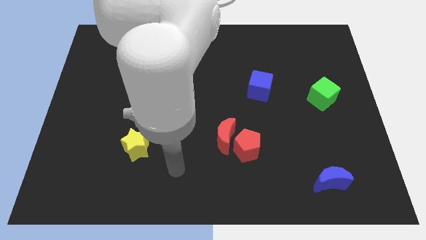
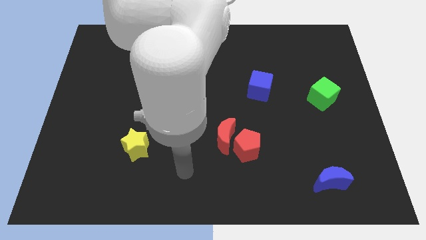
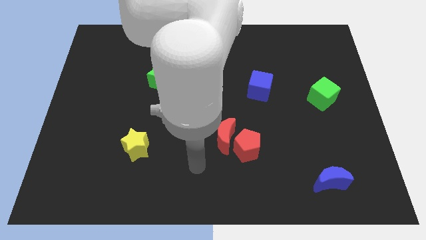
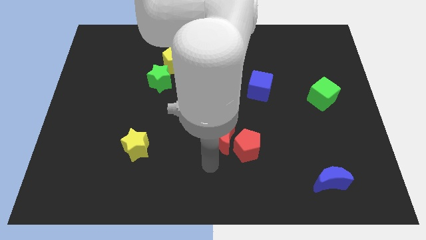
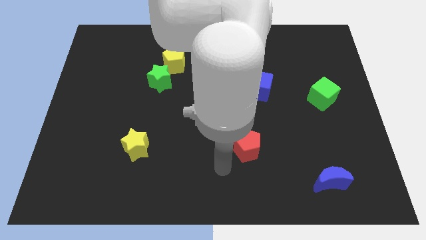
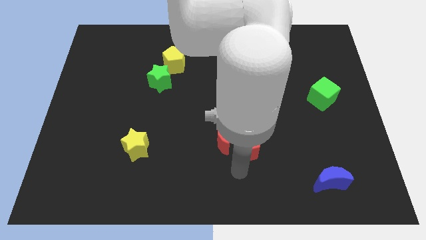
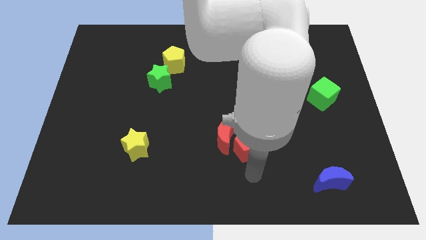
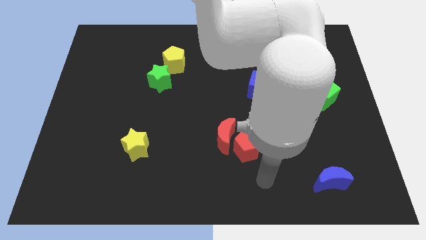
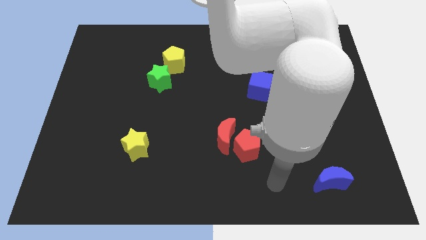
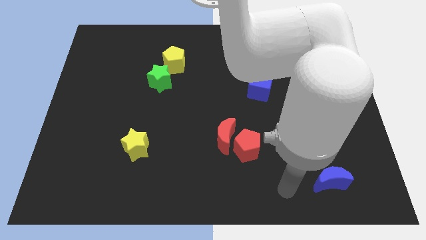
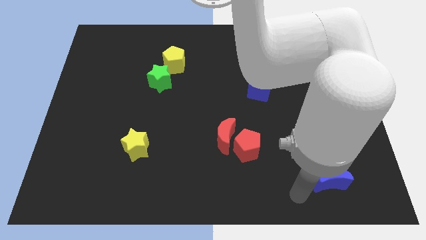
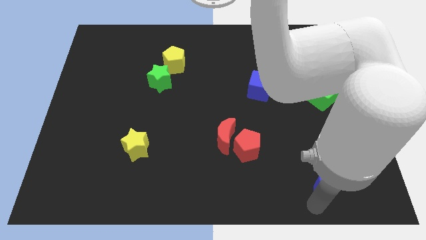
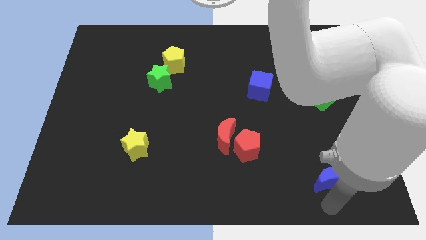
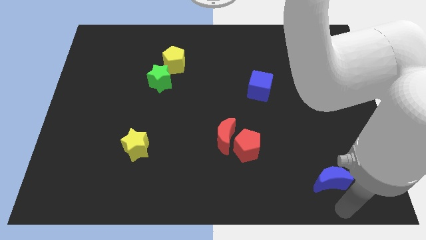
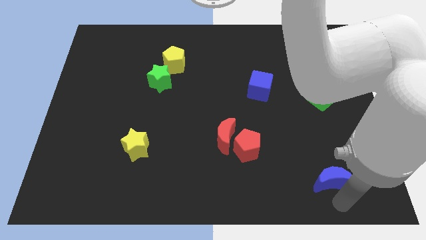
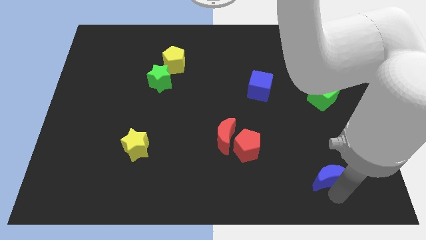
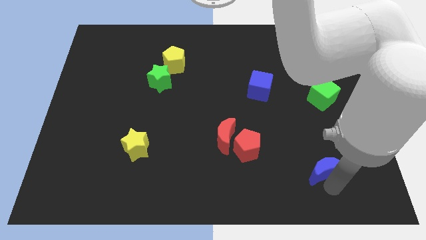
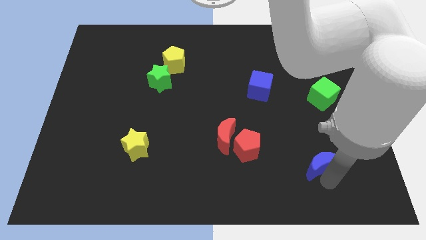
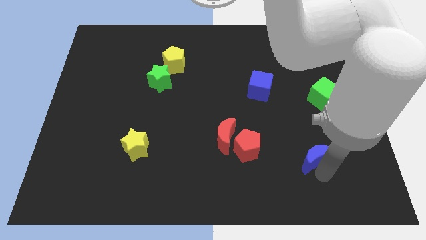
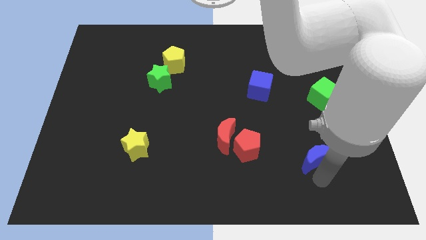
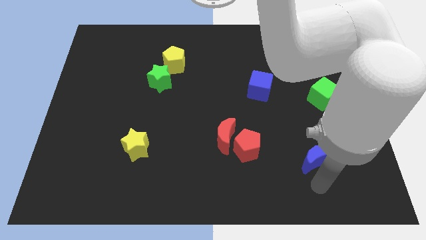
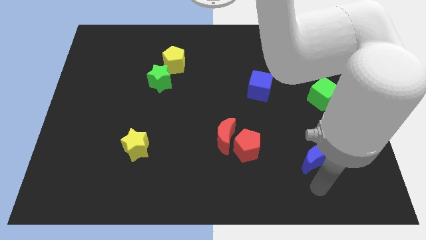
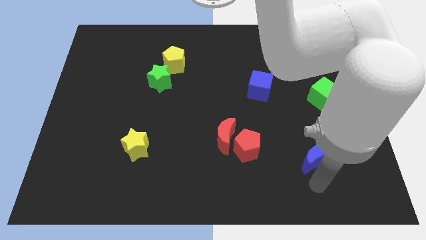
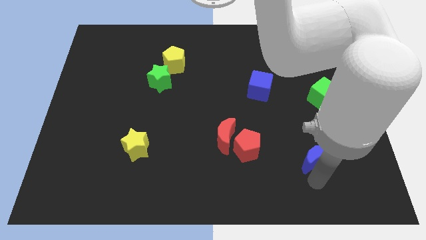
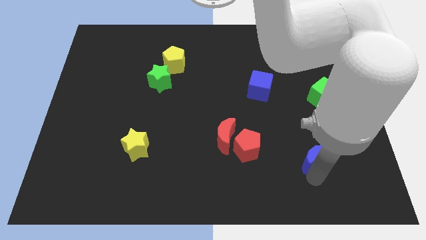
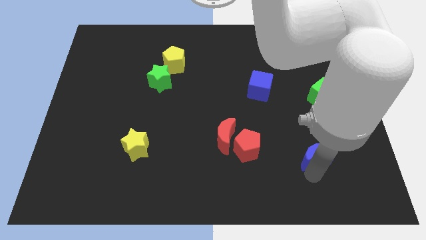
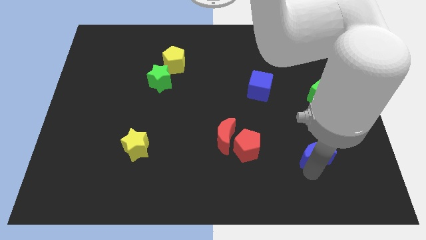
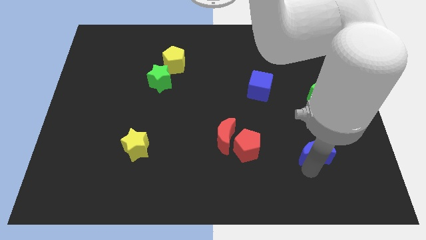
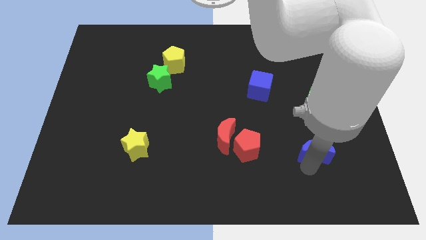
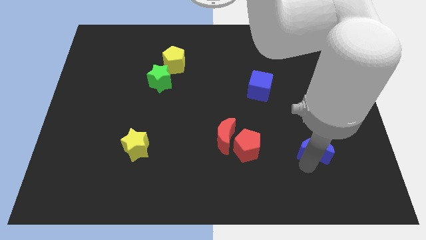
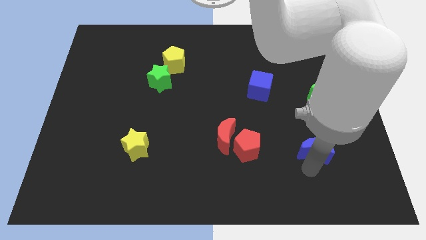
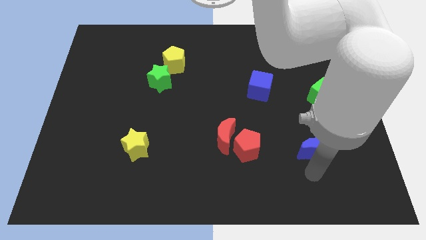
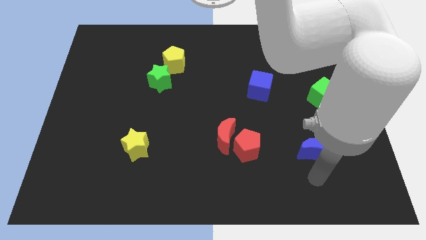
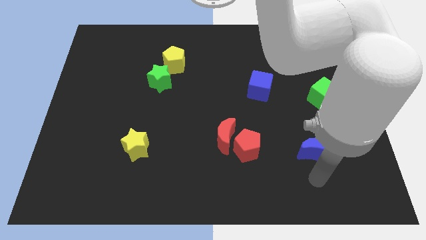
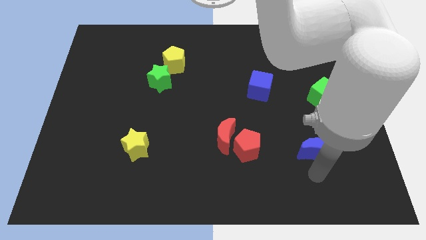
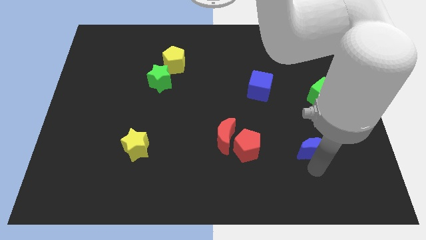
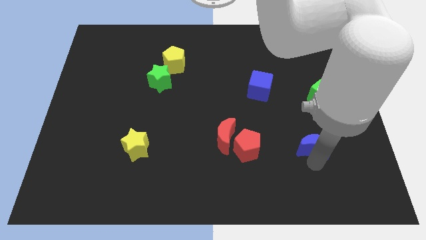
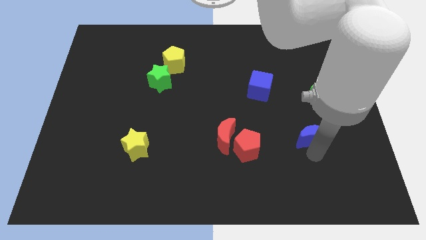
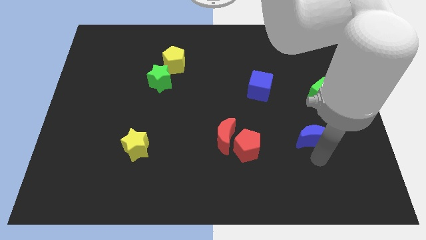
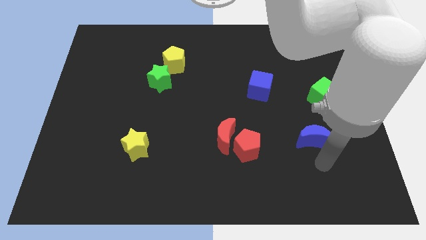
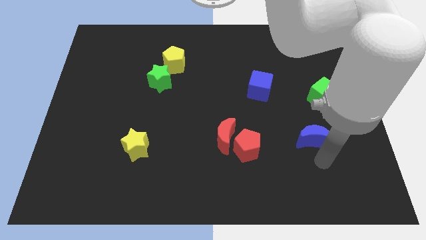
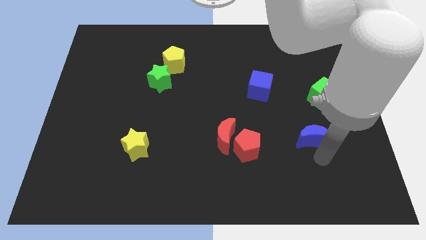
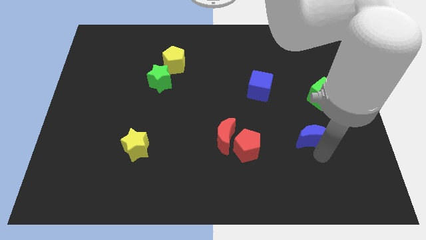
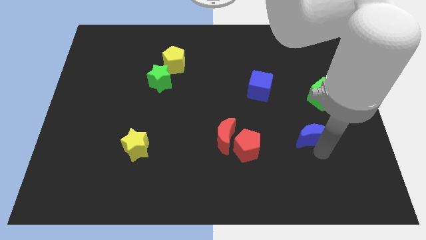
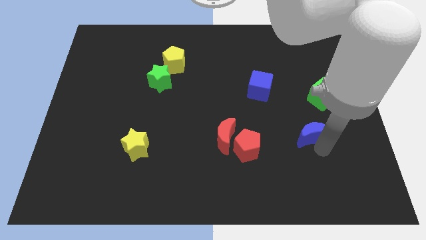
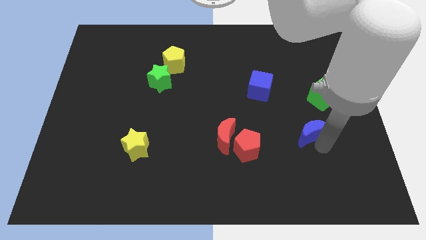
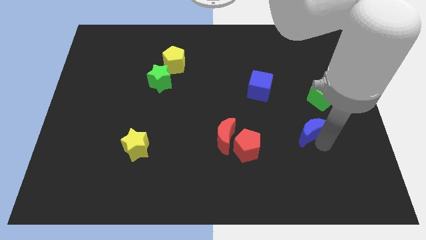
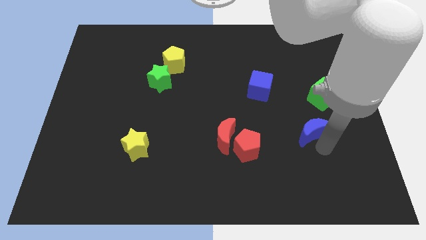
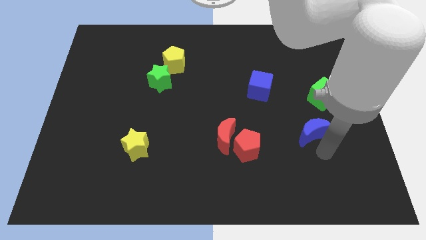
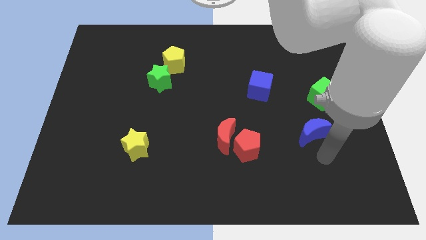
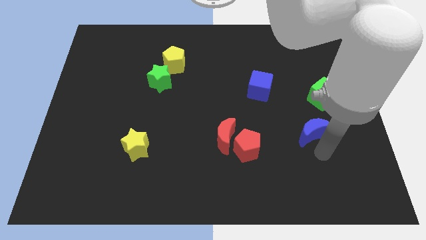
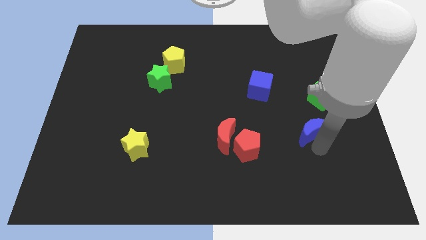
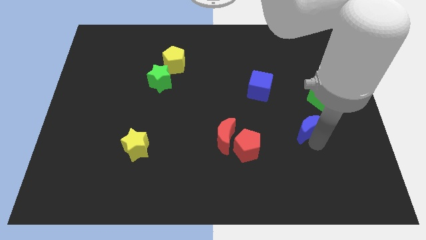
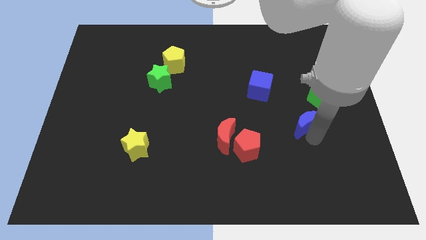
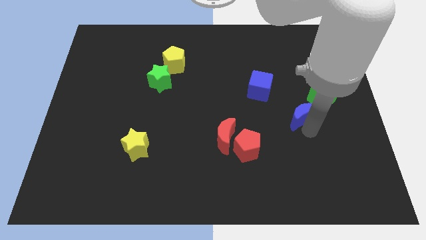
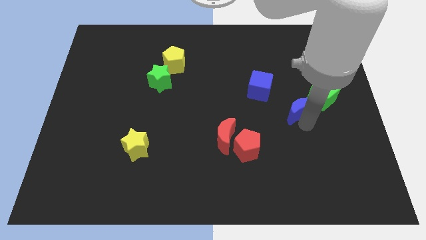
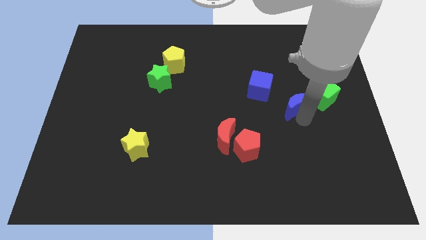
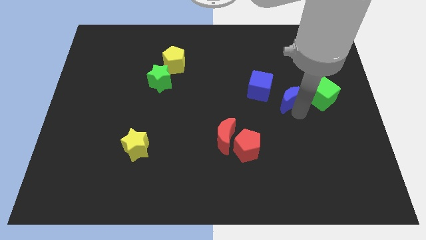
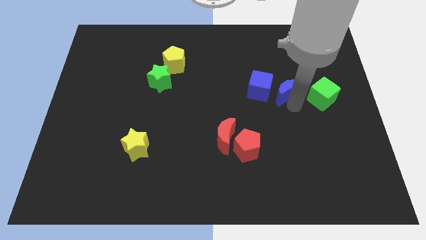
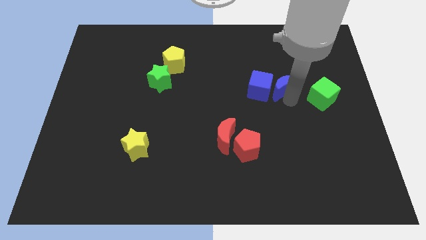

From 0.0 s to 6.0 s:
push the blue moon to the top right side of the blue cube

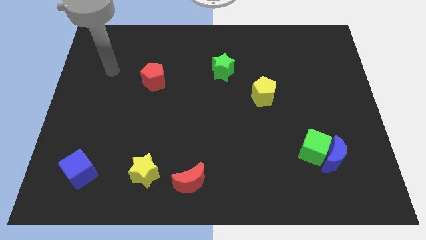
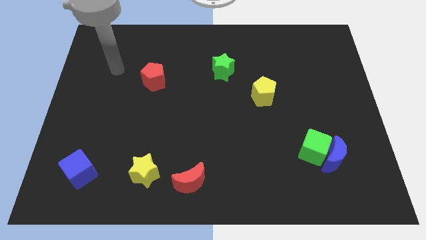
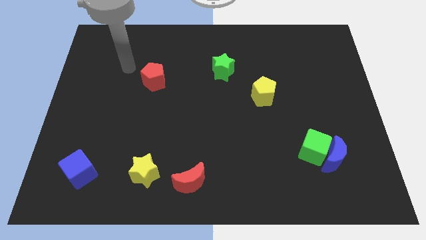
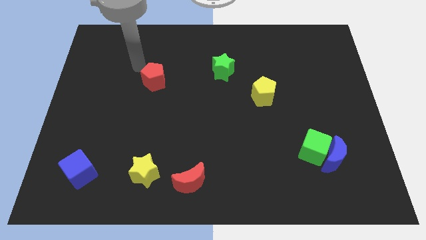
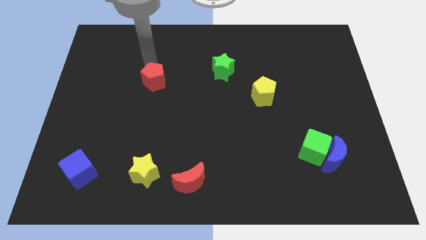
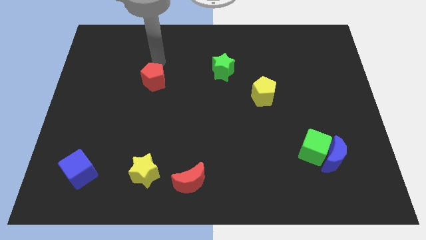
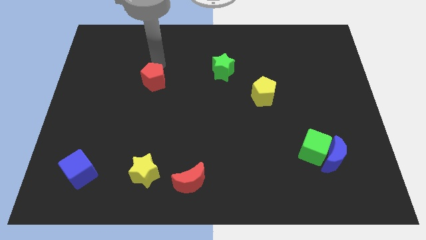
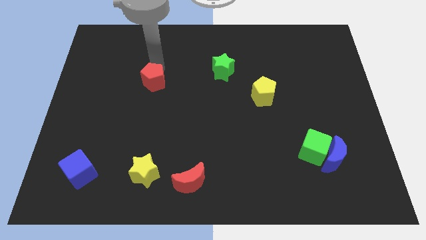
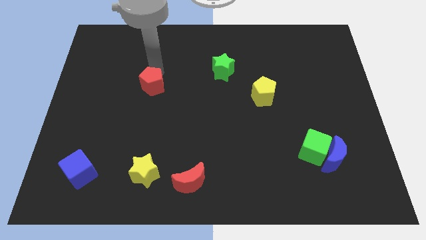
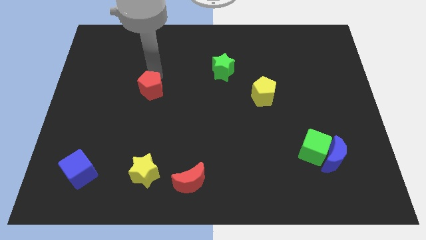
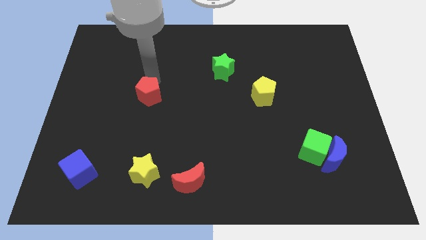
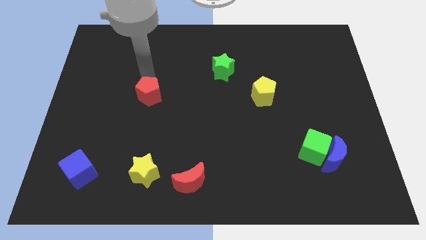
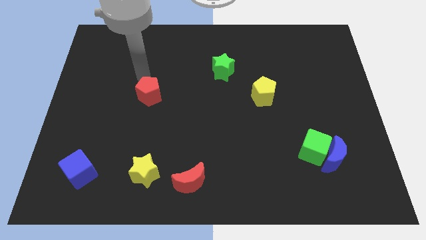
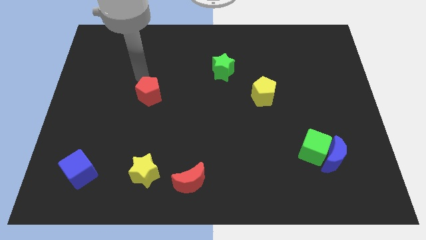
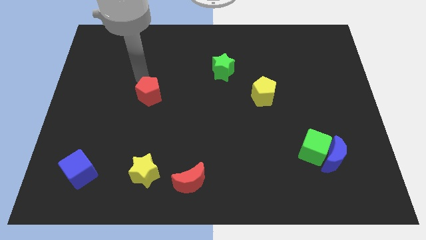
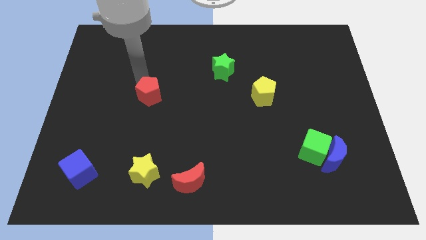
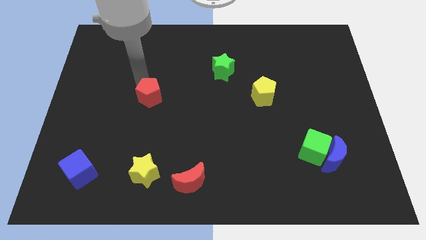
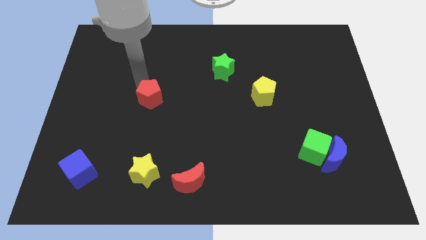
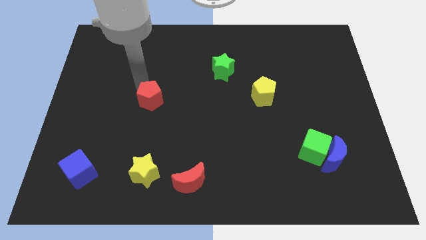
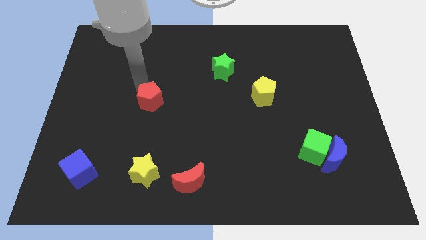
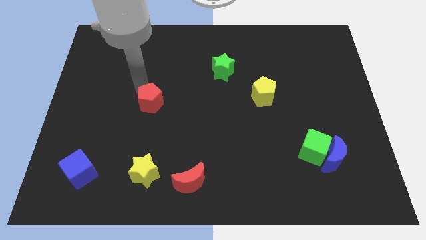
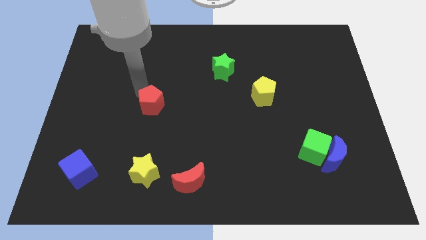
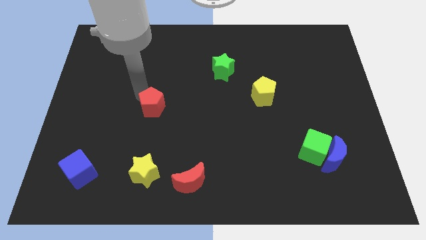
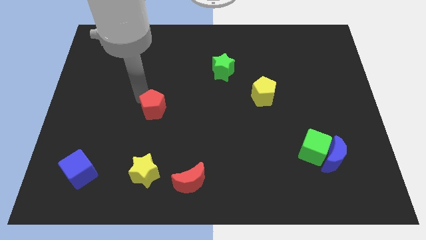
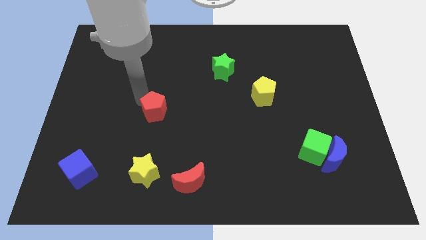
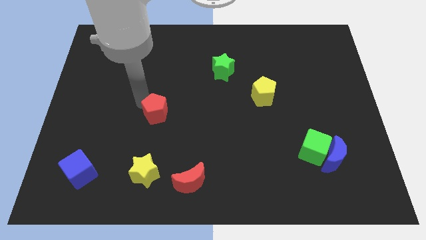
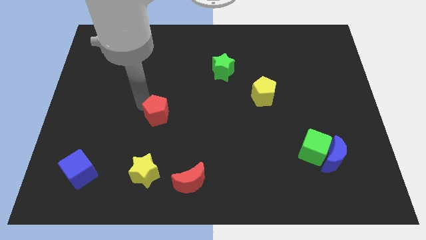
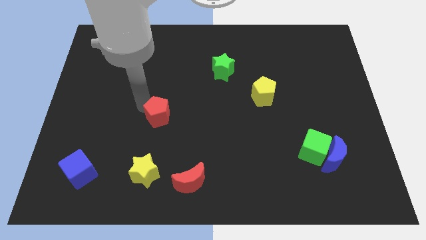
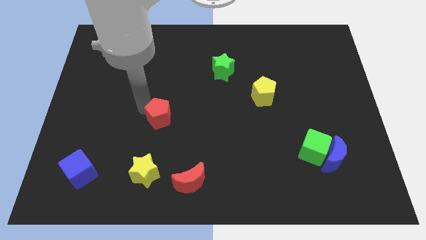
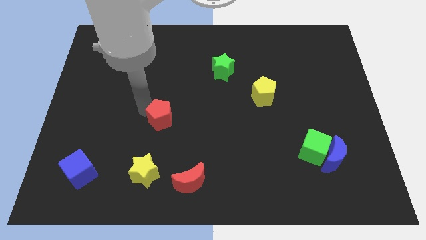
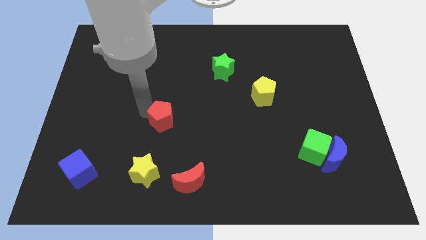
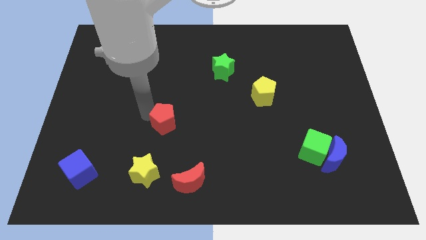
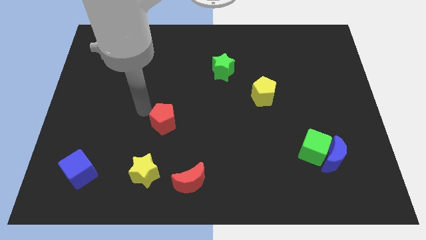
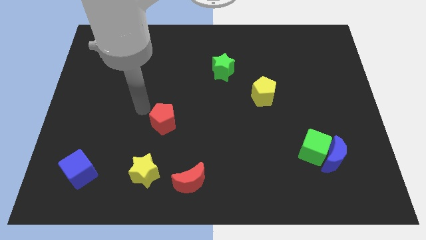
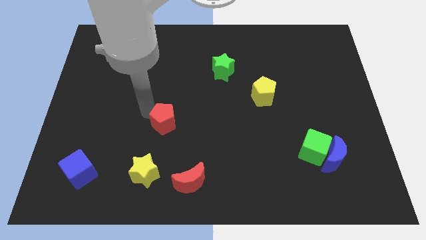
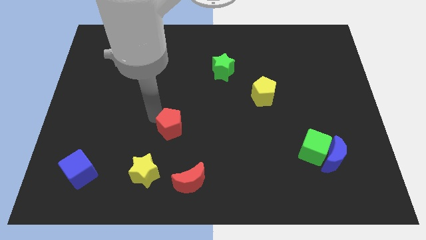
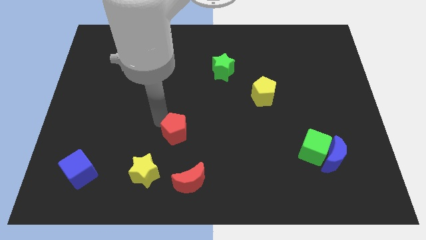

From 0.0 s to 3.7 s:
push the red pentagon to the top of the red moon
